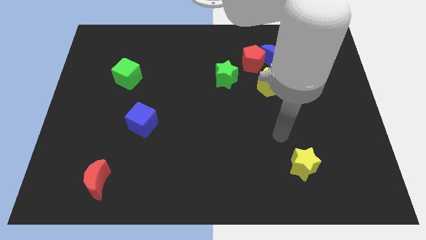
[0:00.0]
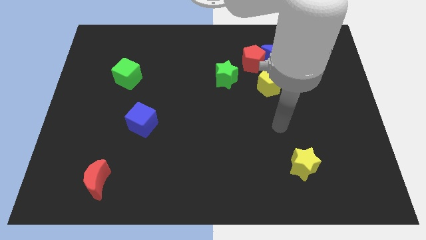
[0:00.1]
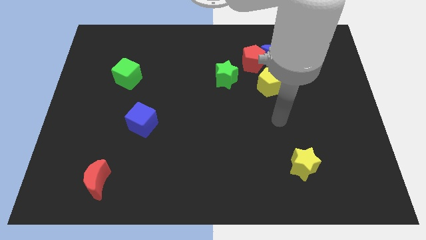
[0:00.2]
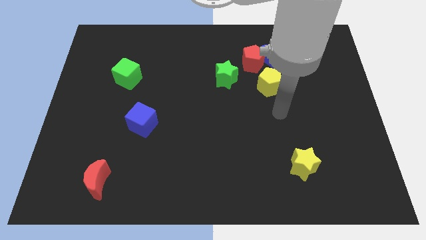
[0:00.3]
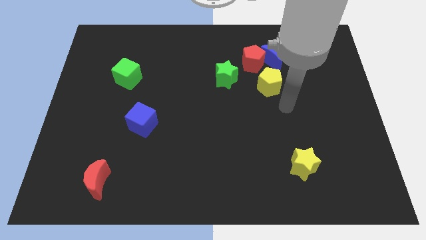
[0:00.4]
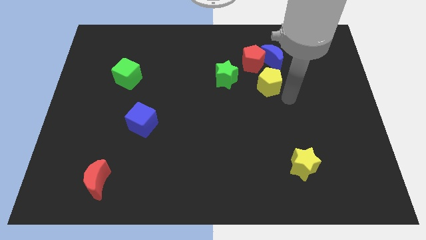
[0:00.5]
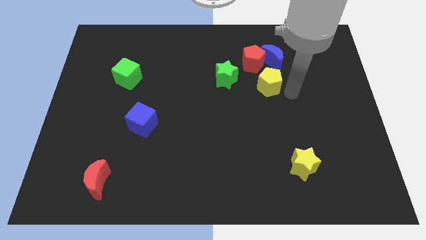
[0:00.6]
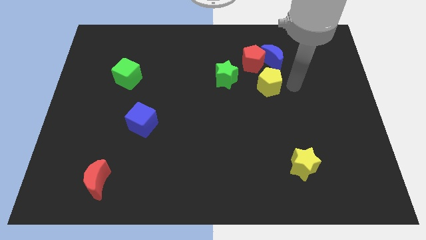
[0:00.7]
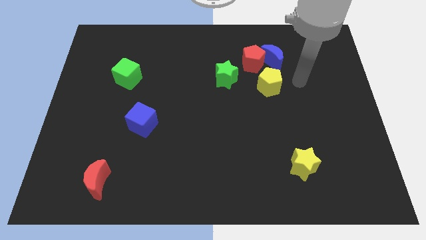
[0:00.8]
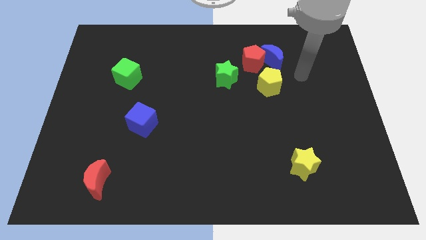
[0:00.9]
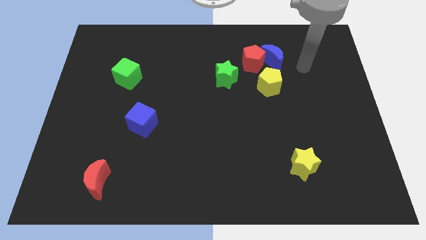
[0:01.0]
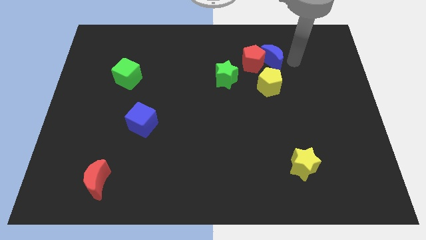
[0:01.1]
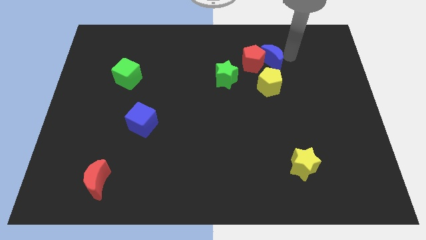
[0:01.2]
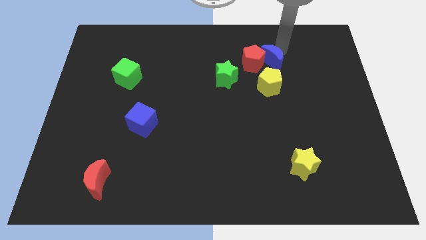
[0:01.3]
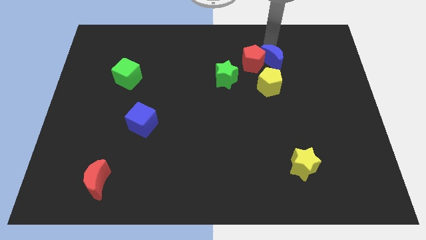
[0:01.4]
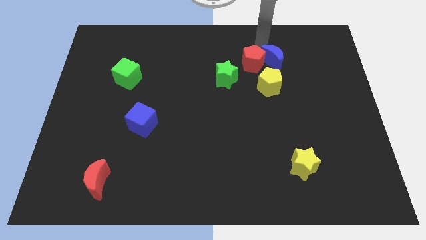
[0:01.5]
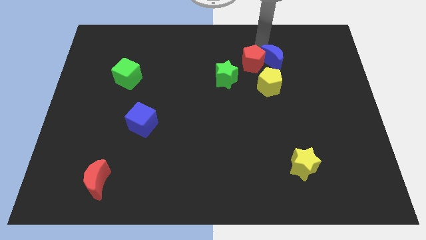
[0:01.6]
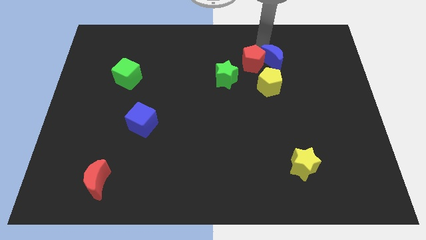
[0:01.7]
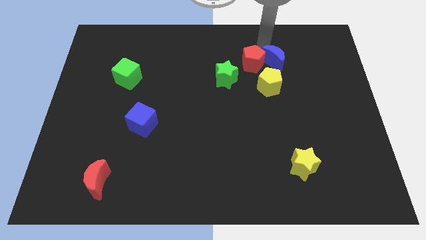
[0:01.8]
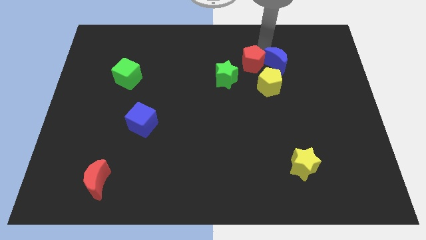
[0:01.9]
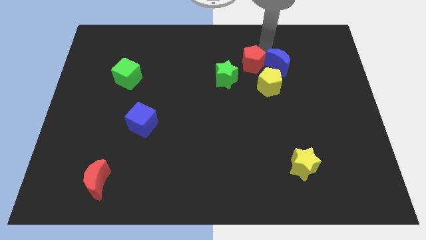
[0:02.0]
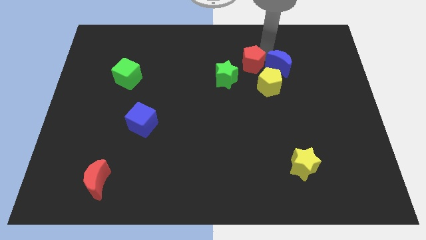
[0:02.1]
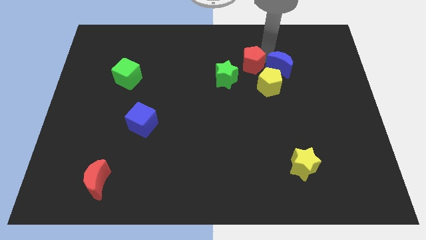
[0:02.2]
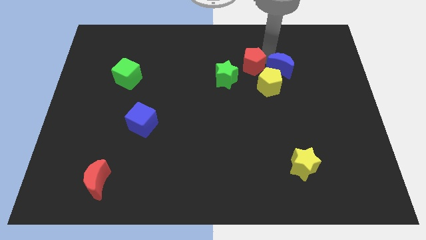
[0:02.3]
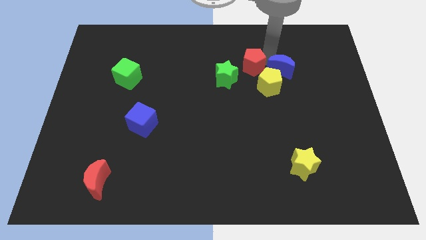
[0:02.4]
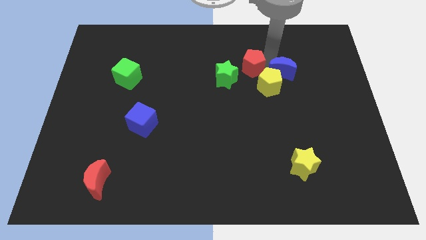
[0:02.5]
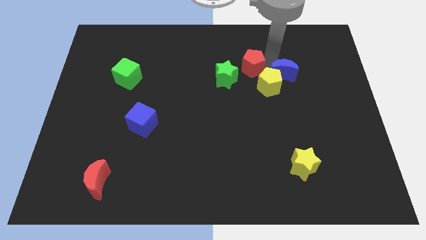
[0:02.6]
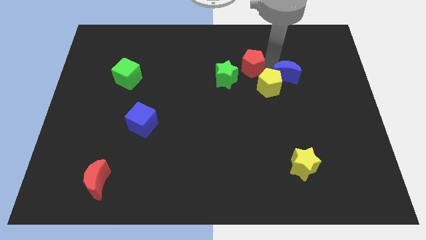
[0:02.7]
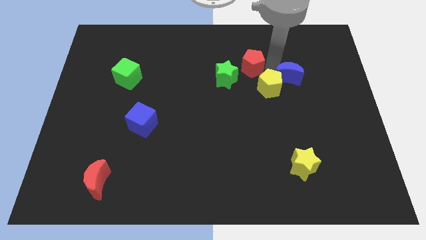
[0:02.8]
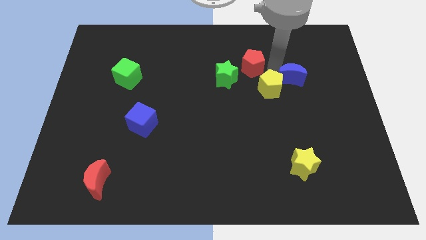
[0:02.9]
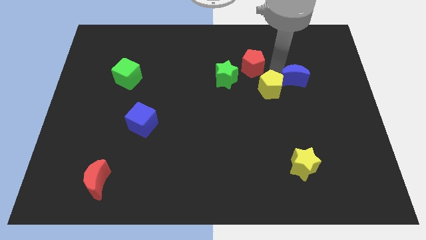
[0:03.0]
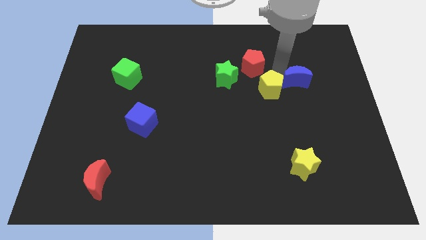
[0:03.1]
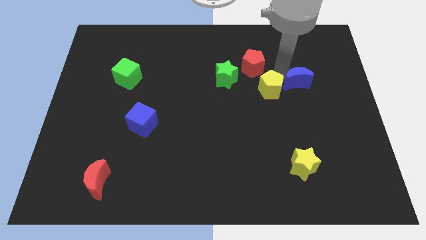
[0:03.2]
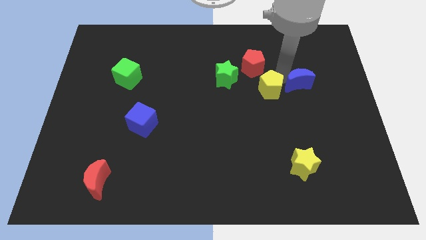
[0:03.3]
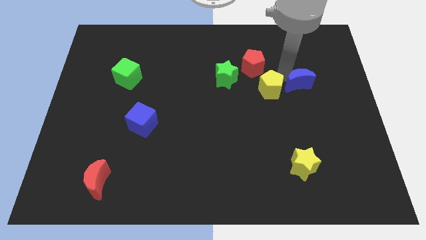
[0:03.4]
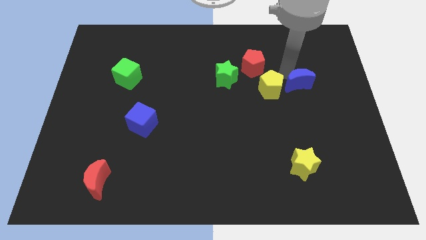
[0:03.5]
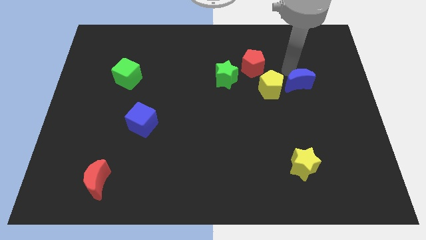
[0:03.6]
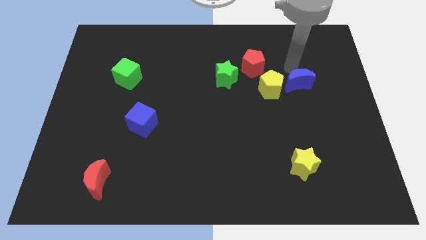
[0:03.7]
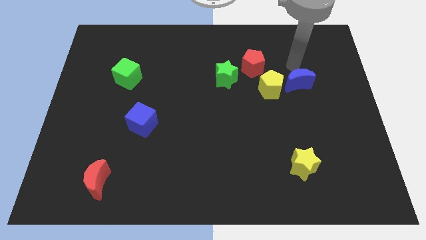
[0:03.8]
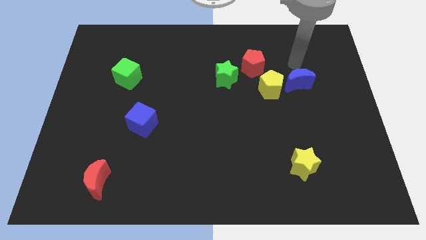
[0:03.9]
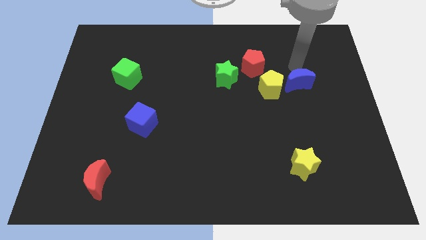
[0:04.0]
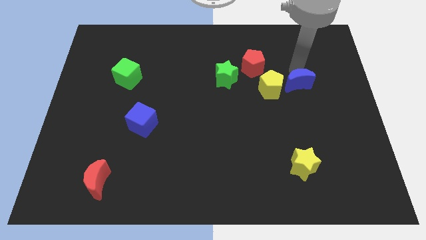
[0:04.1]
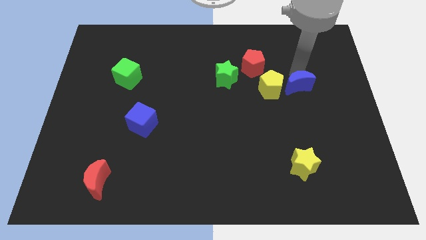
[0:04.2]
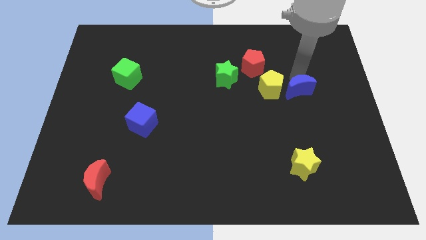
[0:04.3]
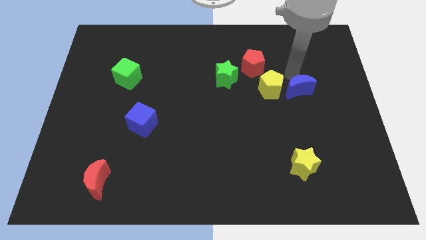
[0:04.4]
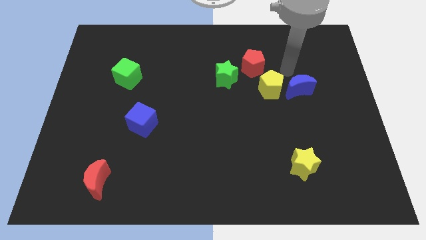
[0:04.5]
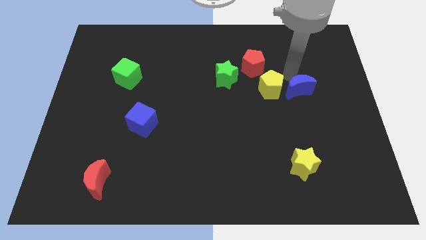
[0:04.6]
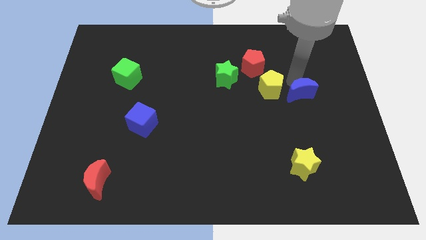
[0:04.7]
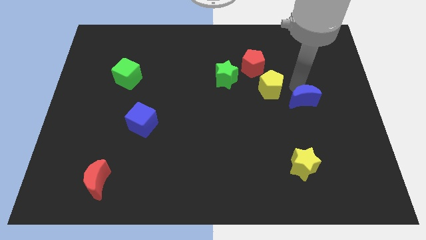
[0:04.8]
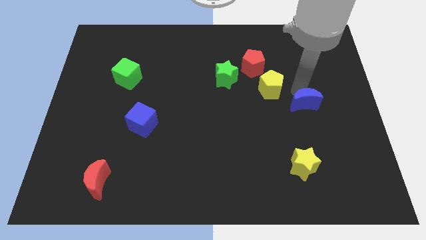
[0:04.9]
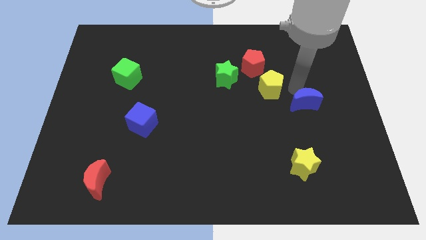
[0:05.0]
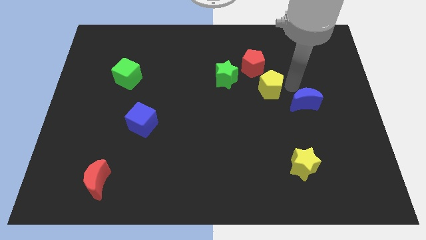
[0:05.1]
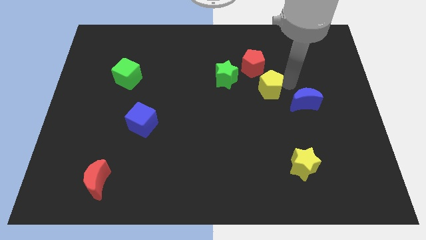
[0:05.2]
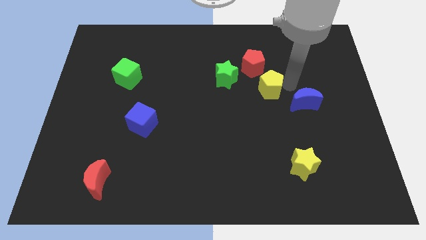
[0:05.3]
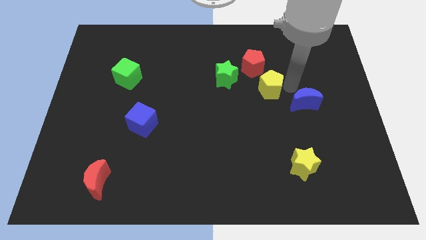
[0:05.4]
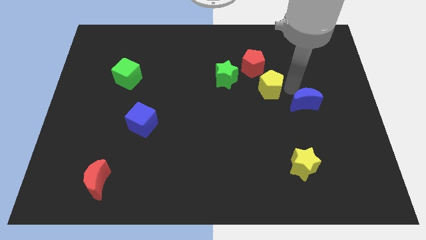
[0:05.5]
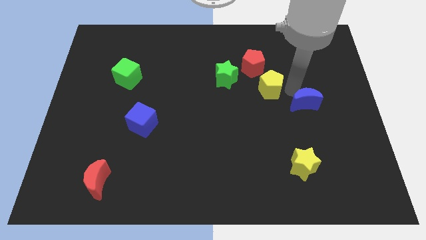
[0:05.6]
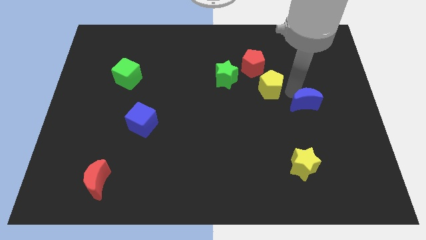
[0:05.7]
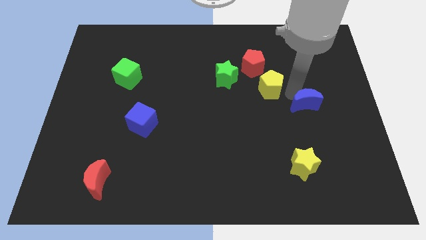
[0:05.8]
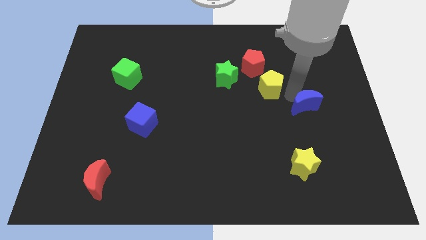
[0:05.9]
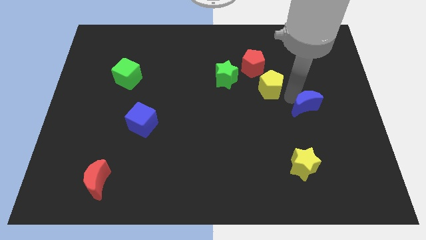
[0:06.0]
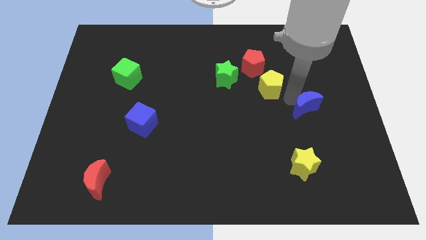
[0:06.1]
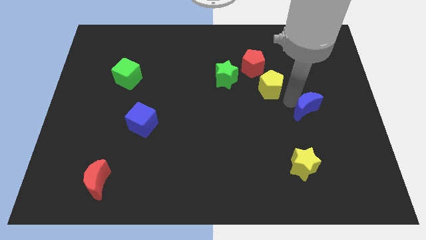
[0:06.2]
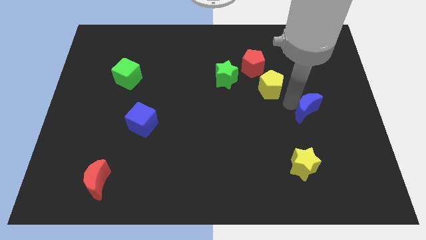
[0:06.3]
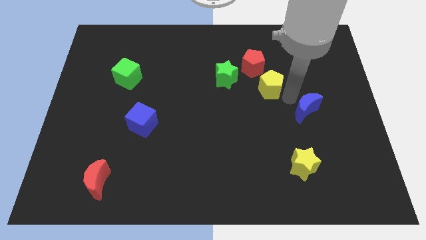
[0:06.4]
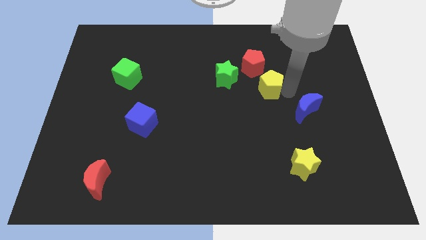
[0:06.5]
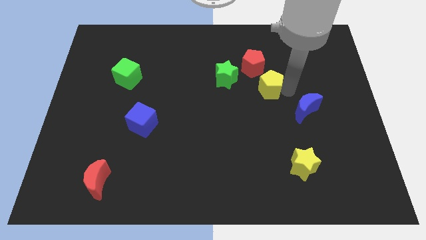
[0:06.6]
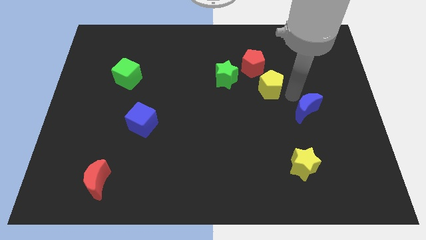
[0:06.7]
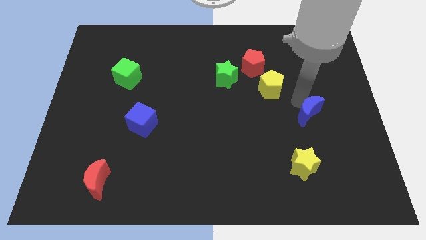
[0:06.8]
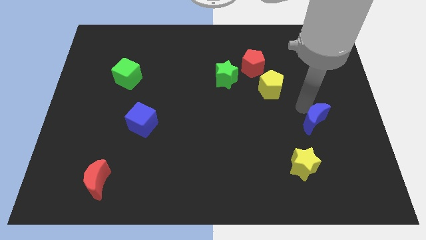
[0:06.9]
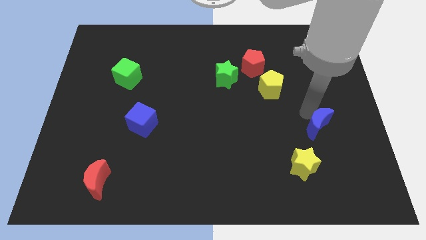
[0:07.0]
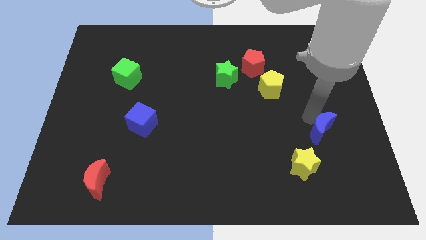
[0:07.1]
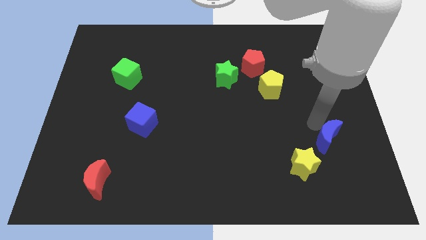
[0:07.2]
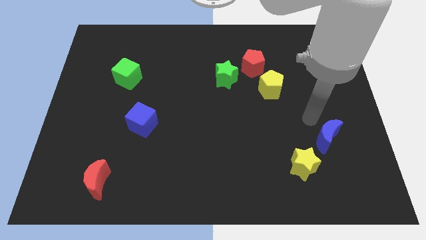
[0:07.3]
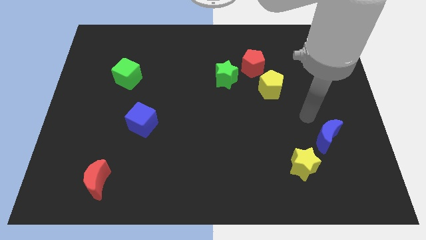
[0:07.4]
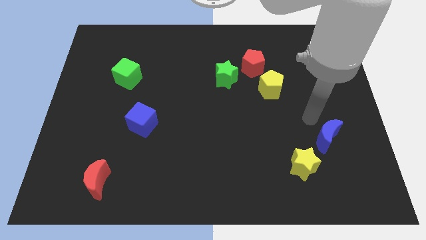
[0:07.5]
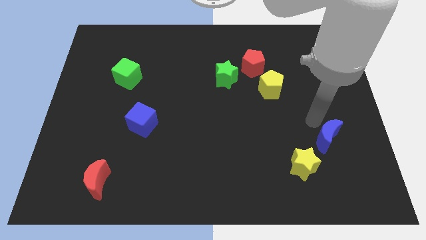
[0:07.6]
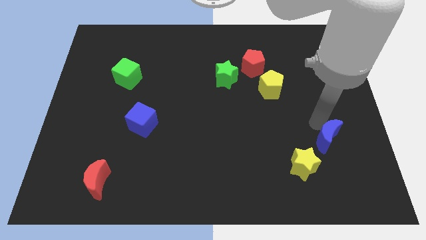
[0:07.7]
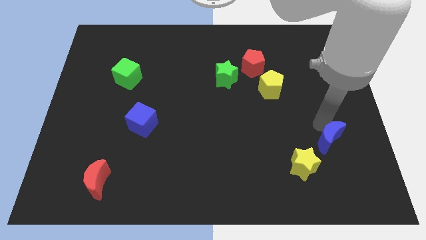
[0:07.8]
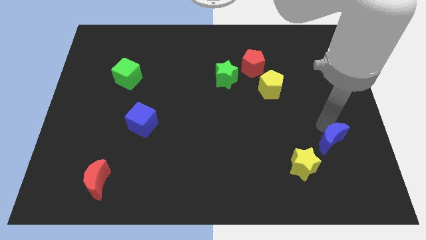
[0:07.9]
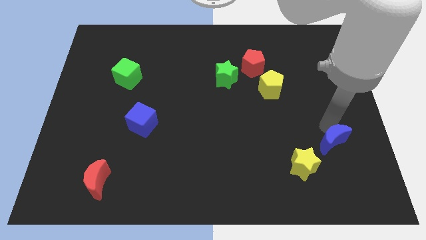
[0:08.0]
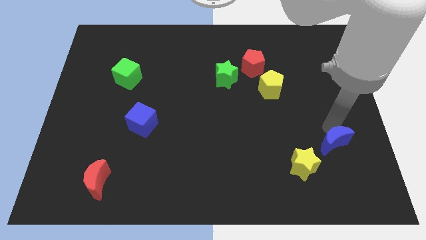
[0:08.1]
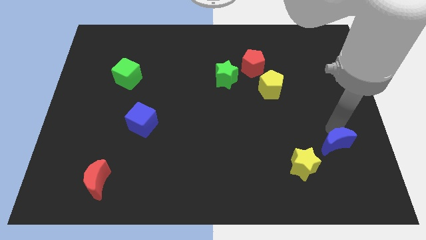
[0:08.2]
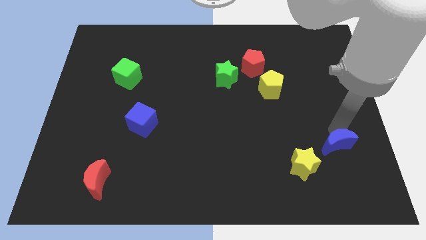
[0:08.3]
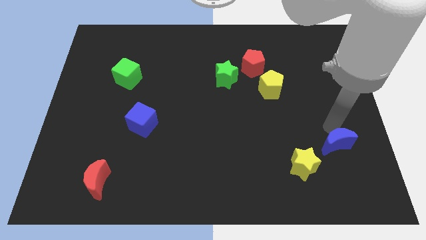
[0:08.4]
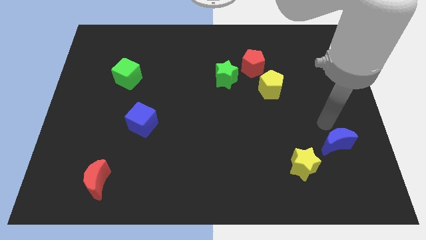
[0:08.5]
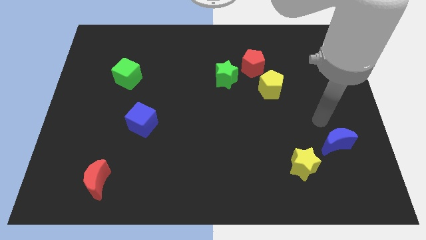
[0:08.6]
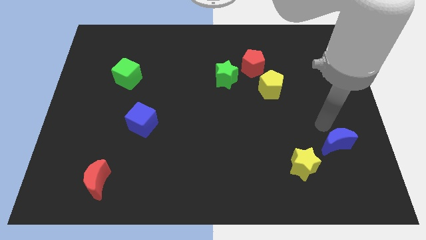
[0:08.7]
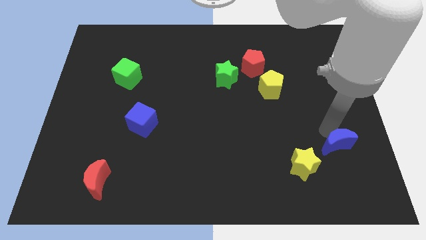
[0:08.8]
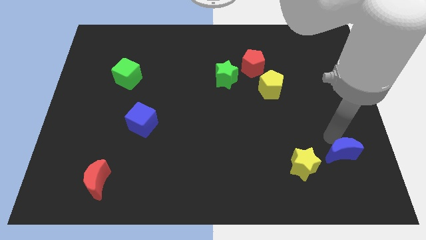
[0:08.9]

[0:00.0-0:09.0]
put the blue moon to the right side of the yellow star
